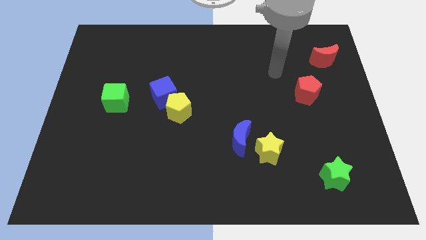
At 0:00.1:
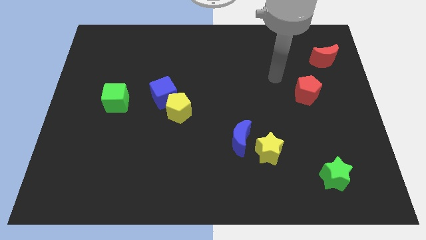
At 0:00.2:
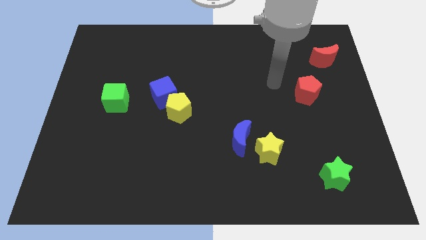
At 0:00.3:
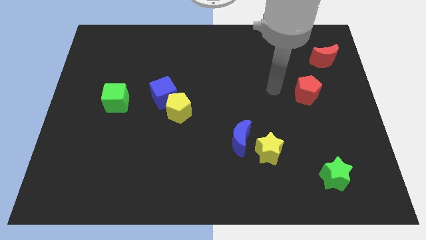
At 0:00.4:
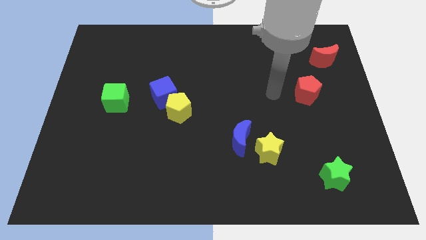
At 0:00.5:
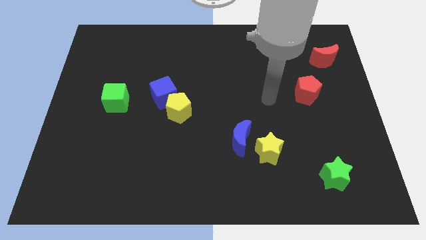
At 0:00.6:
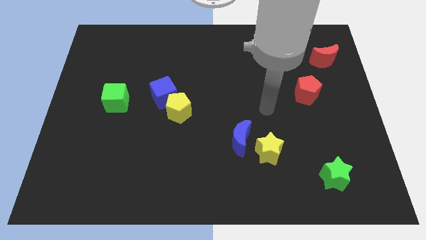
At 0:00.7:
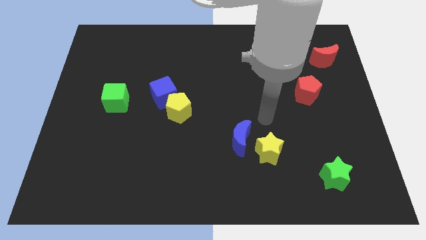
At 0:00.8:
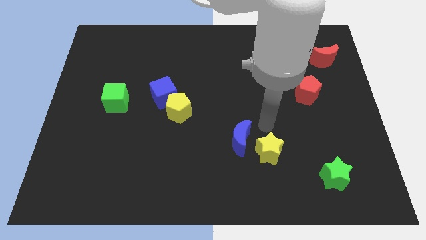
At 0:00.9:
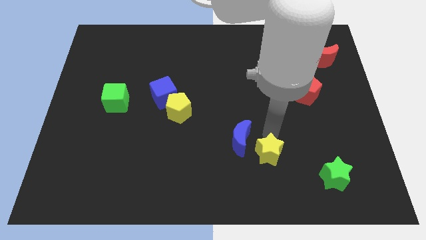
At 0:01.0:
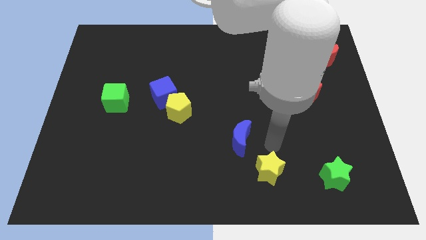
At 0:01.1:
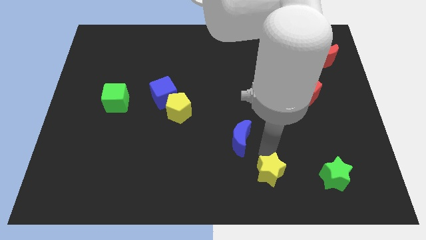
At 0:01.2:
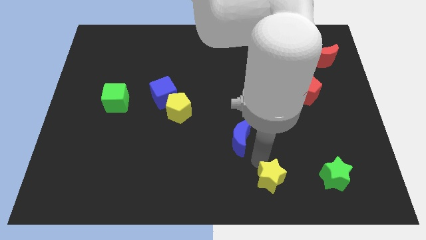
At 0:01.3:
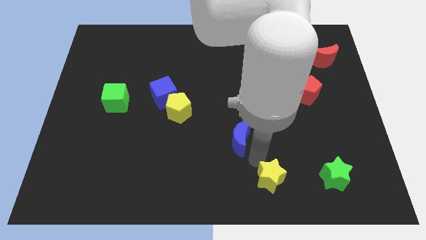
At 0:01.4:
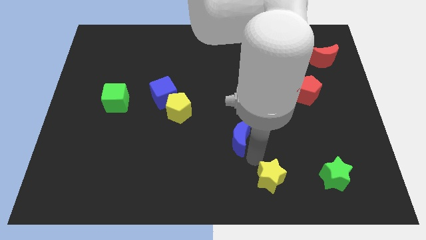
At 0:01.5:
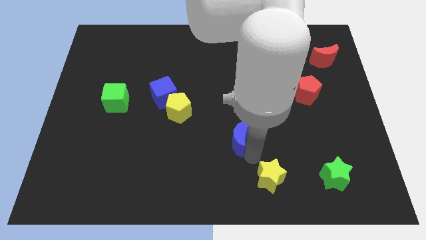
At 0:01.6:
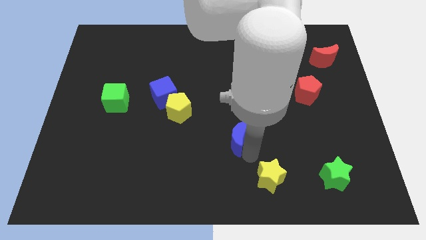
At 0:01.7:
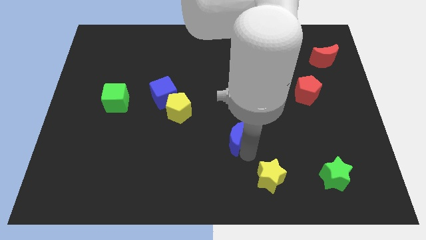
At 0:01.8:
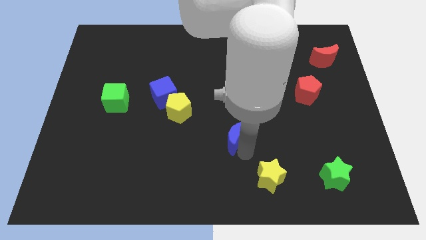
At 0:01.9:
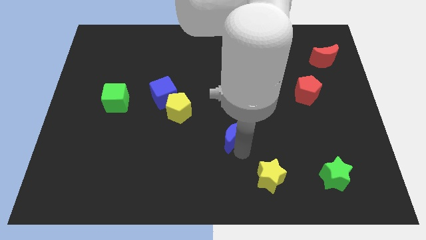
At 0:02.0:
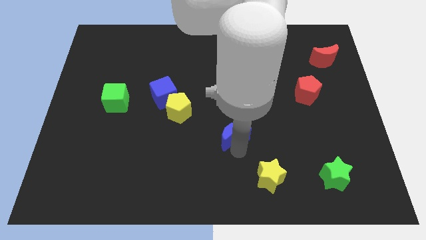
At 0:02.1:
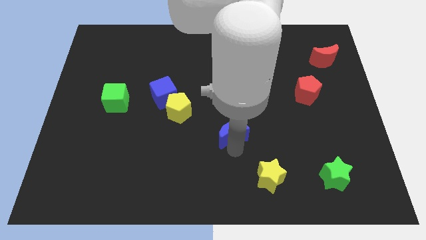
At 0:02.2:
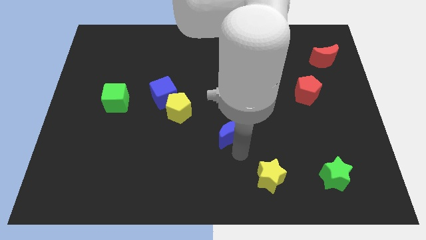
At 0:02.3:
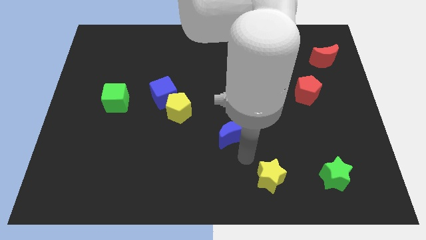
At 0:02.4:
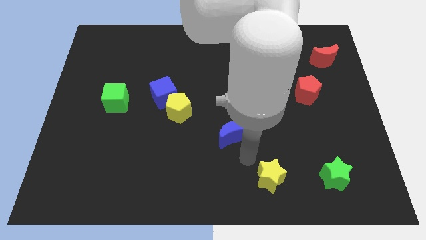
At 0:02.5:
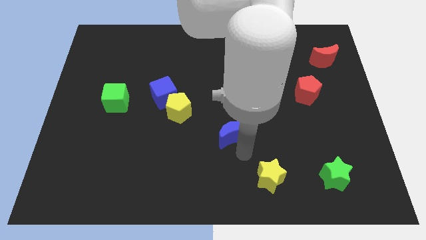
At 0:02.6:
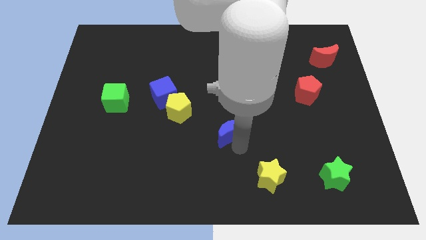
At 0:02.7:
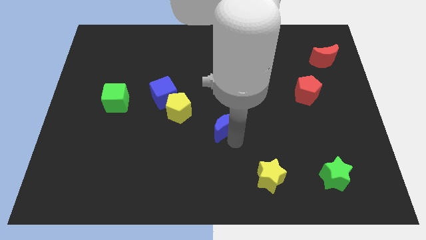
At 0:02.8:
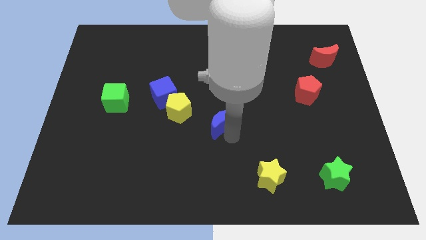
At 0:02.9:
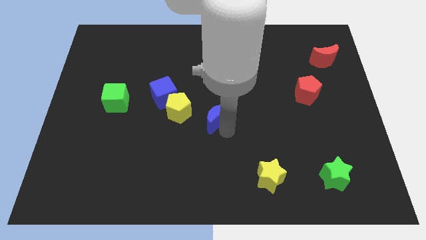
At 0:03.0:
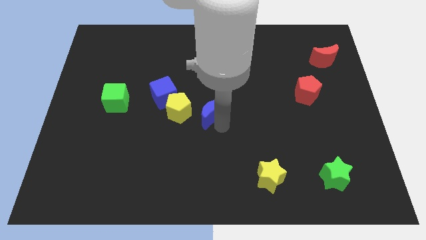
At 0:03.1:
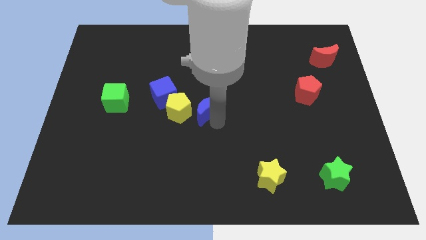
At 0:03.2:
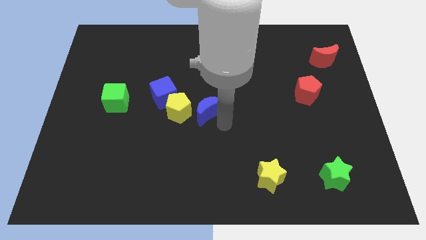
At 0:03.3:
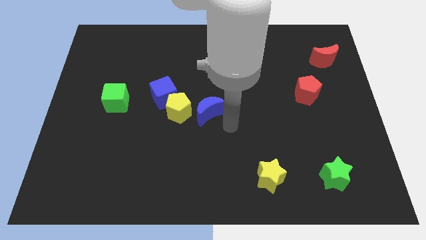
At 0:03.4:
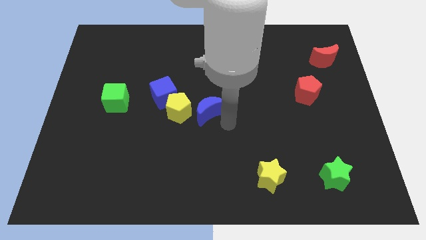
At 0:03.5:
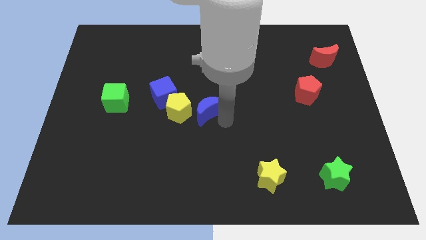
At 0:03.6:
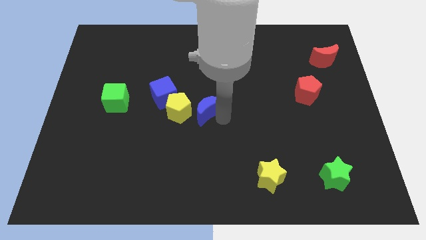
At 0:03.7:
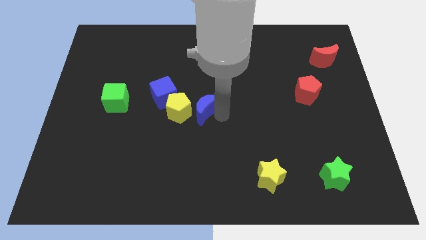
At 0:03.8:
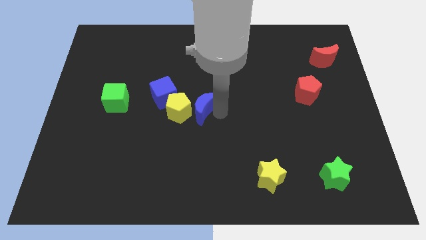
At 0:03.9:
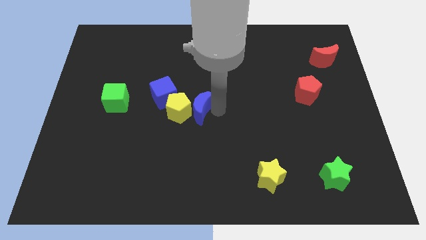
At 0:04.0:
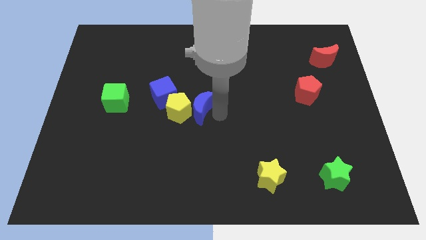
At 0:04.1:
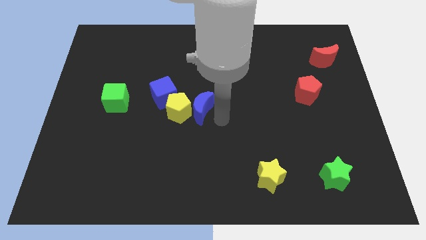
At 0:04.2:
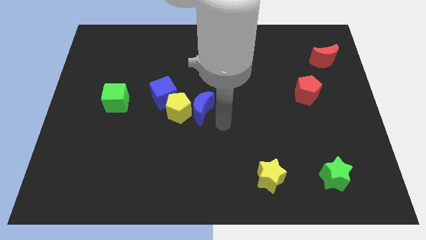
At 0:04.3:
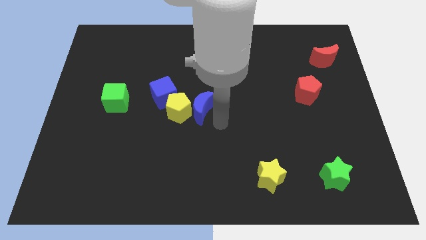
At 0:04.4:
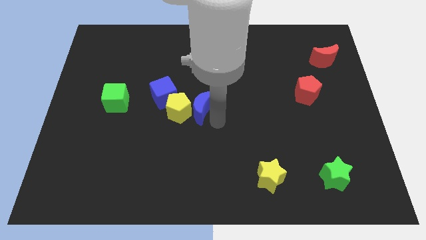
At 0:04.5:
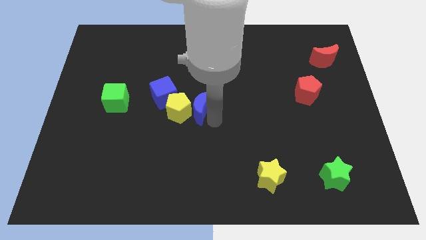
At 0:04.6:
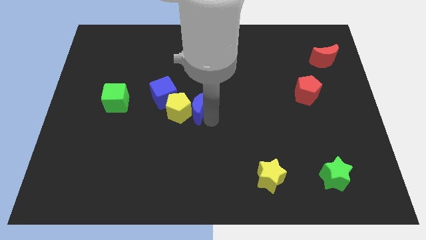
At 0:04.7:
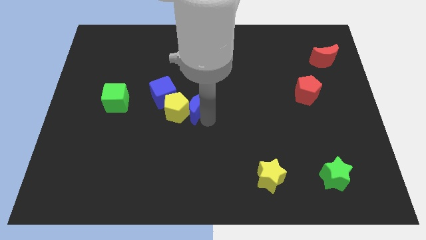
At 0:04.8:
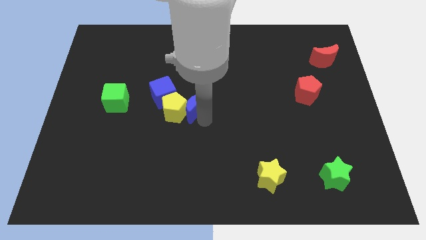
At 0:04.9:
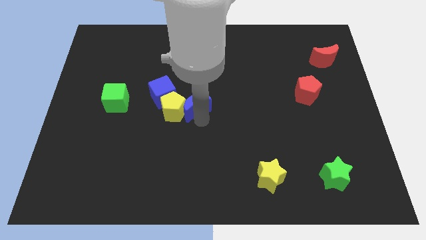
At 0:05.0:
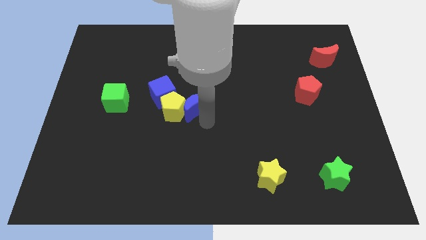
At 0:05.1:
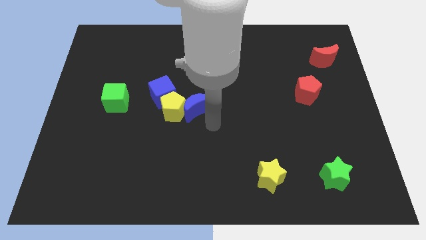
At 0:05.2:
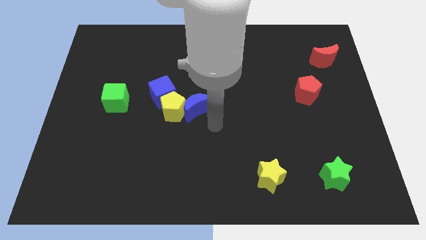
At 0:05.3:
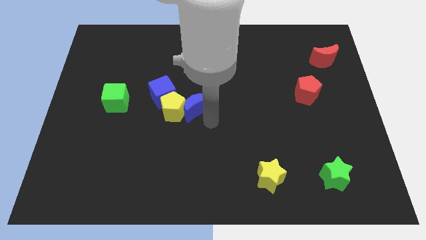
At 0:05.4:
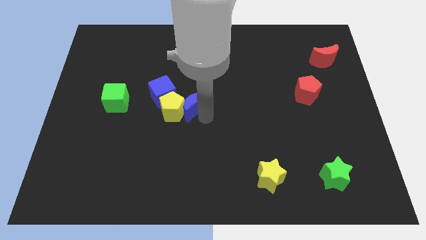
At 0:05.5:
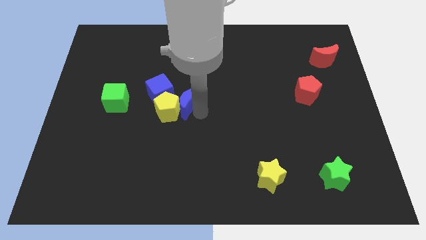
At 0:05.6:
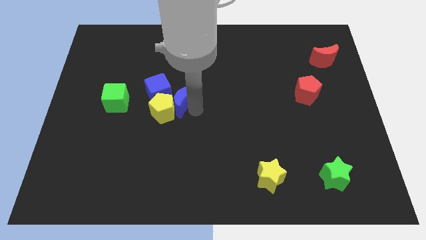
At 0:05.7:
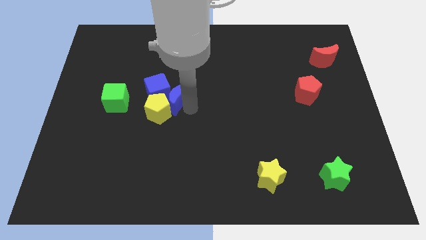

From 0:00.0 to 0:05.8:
push the blue moon to the blue cube

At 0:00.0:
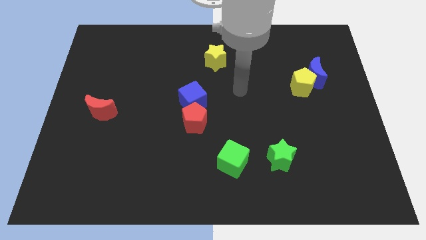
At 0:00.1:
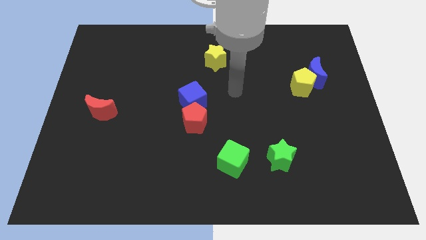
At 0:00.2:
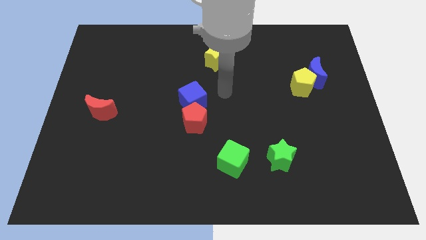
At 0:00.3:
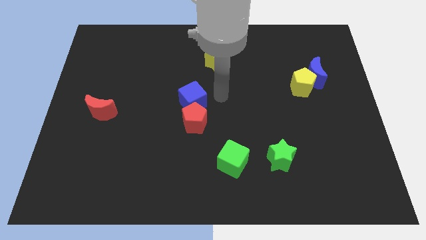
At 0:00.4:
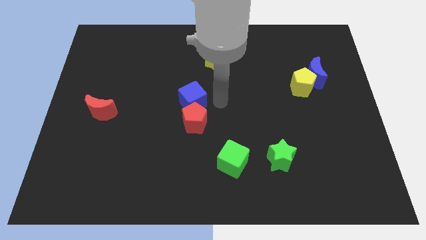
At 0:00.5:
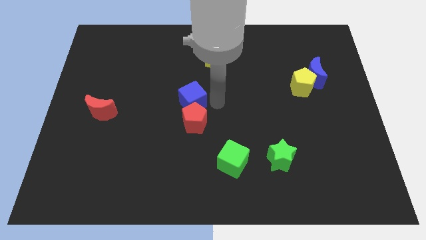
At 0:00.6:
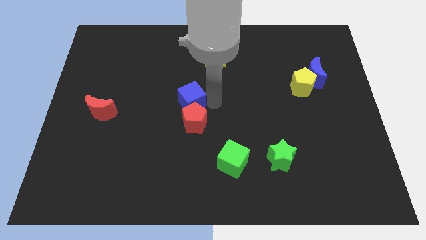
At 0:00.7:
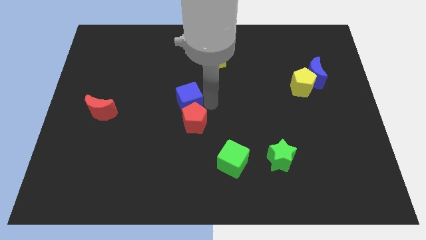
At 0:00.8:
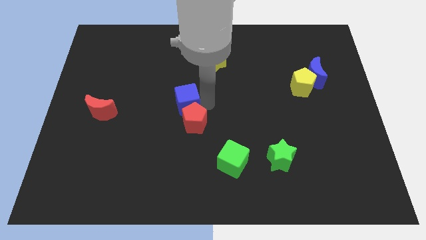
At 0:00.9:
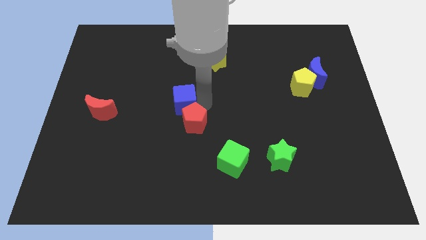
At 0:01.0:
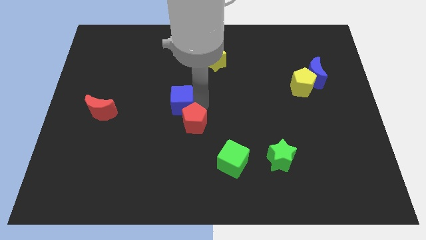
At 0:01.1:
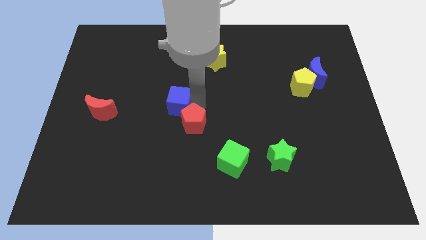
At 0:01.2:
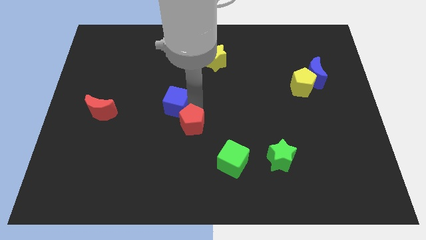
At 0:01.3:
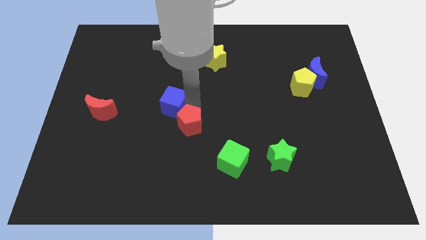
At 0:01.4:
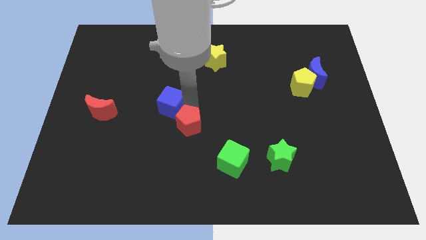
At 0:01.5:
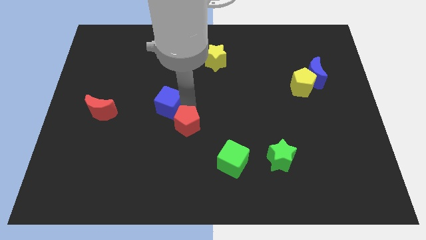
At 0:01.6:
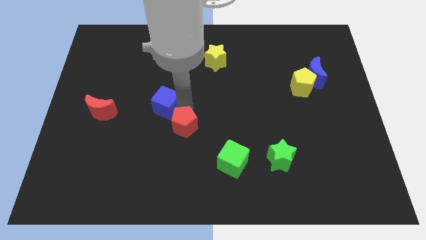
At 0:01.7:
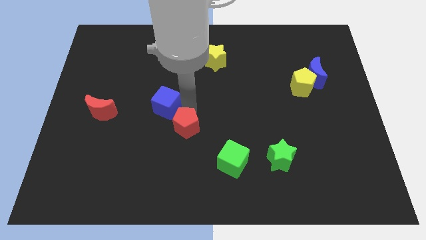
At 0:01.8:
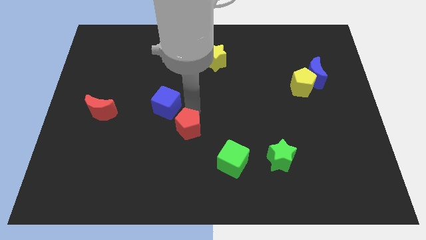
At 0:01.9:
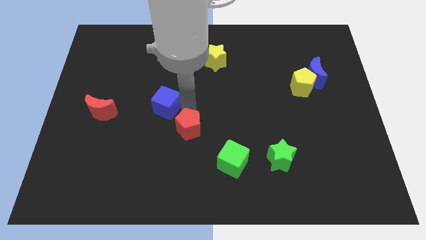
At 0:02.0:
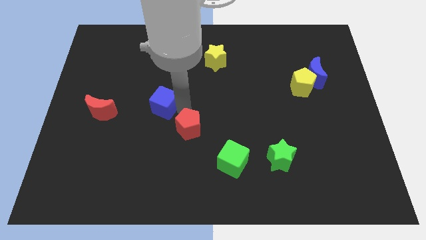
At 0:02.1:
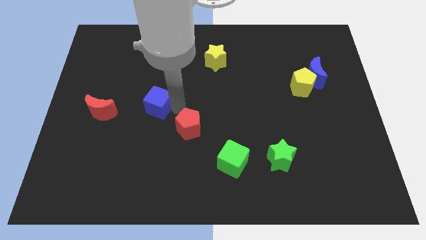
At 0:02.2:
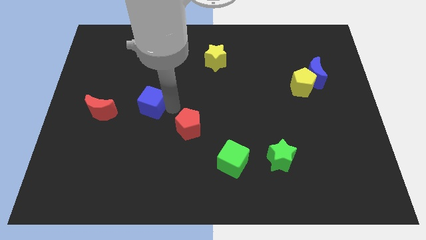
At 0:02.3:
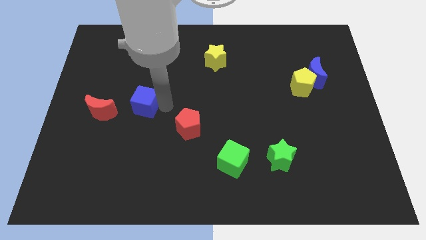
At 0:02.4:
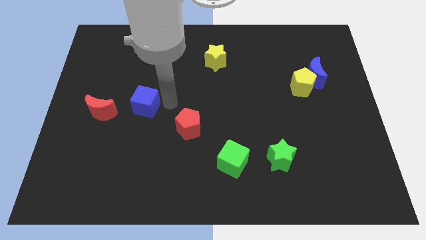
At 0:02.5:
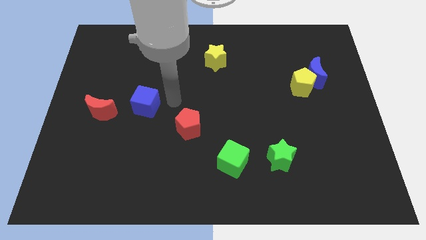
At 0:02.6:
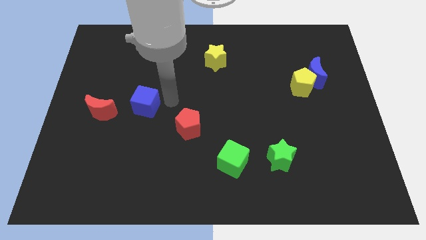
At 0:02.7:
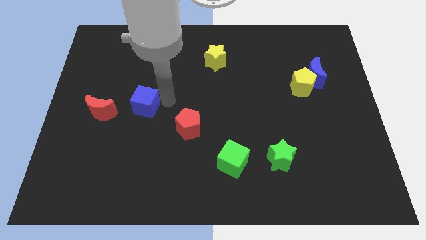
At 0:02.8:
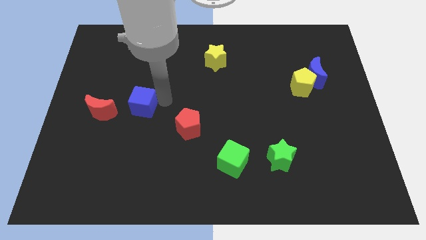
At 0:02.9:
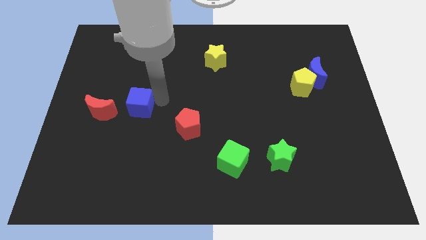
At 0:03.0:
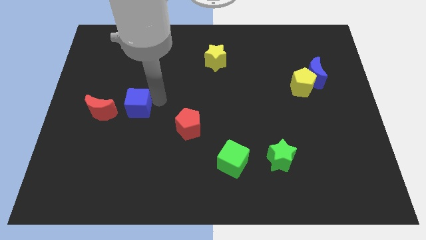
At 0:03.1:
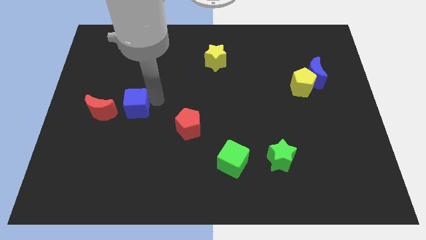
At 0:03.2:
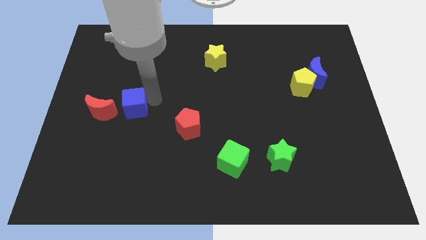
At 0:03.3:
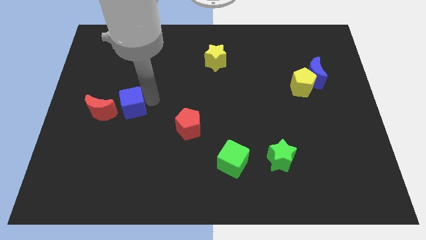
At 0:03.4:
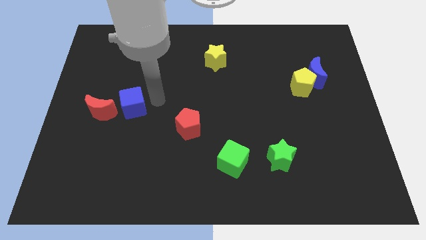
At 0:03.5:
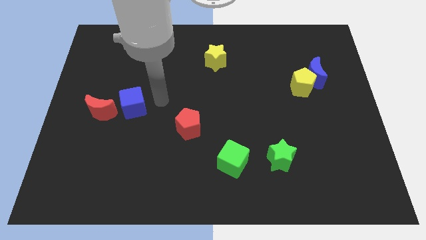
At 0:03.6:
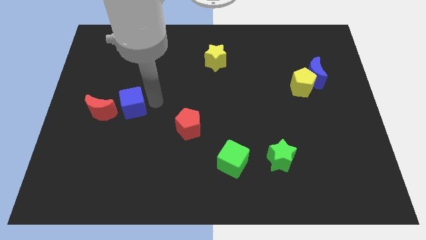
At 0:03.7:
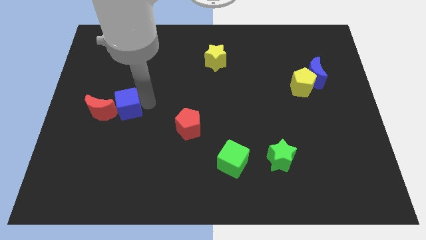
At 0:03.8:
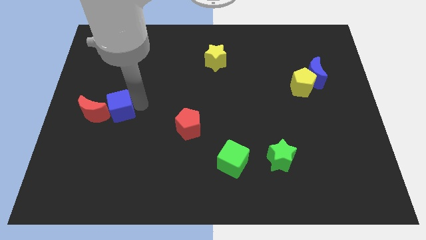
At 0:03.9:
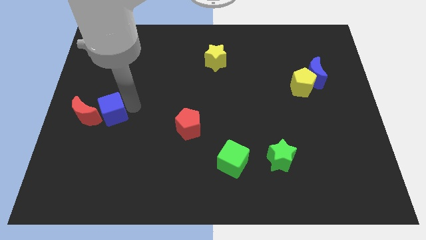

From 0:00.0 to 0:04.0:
move the blue cube close to the red moon
